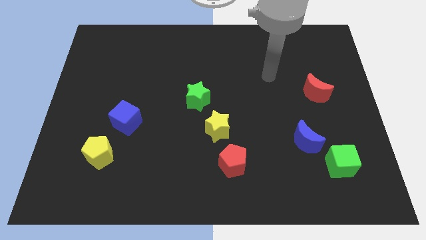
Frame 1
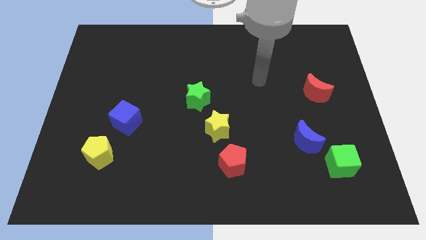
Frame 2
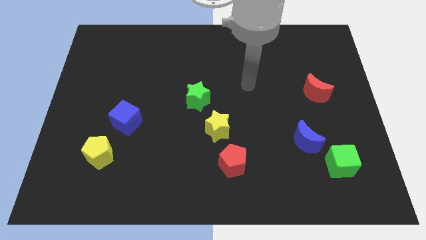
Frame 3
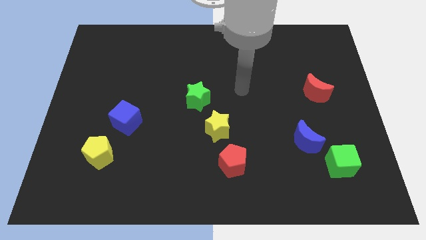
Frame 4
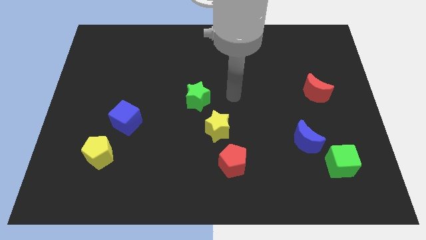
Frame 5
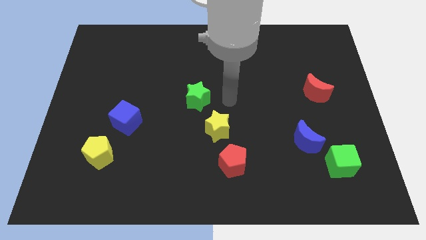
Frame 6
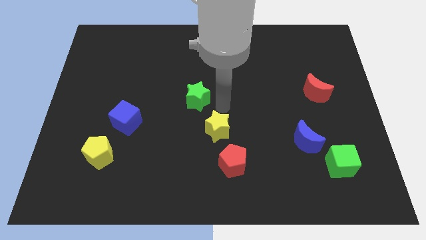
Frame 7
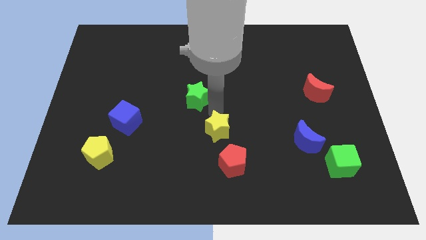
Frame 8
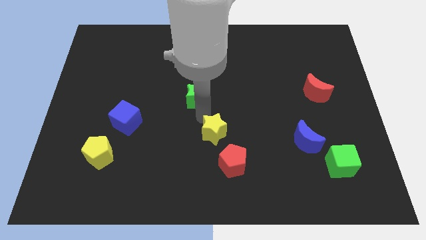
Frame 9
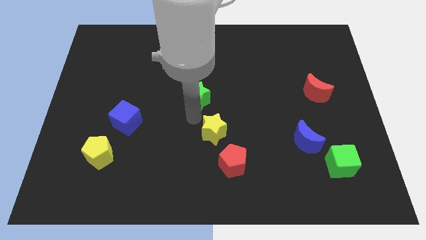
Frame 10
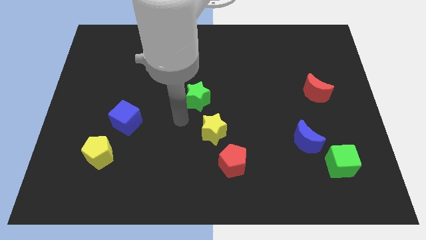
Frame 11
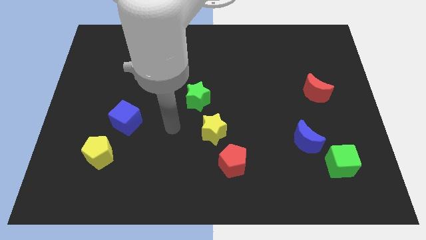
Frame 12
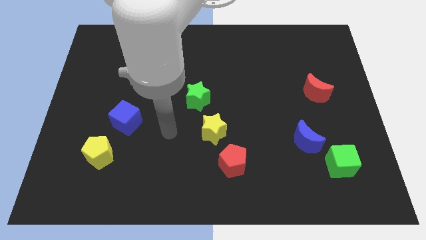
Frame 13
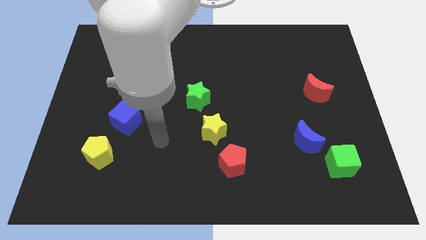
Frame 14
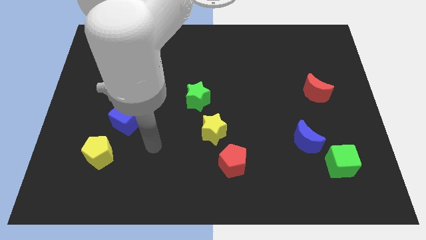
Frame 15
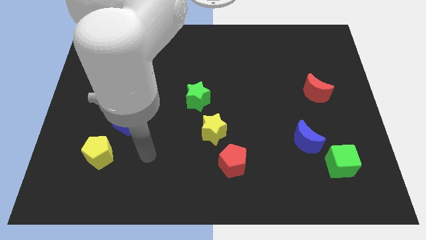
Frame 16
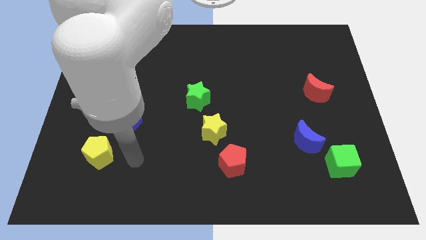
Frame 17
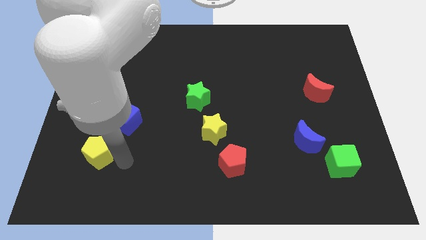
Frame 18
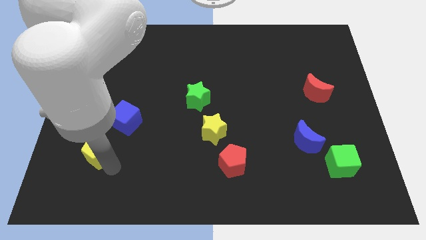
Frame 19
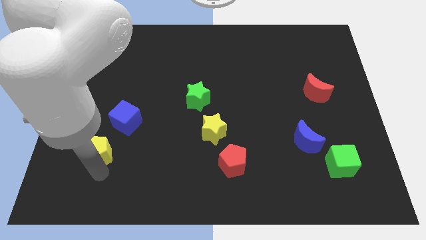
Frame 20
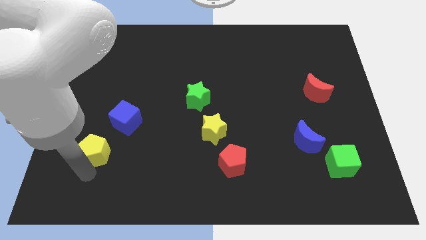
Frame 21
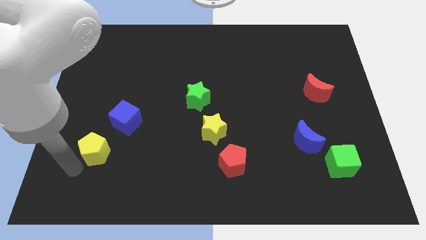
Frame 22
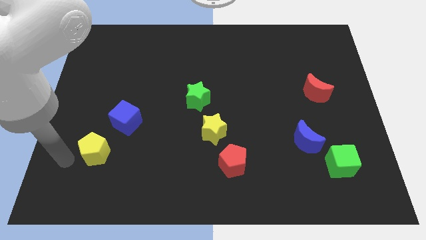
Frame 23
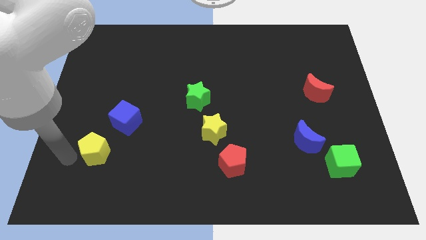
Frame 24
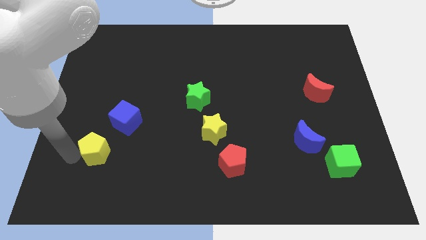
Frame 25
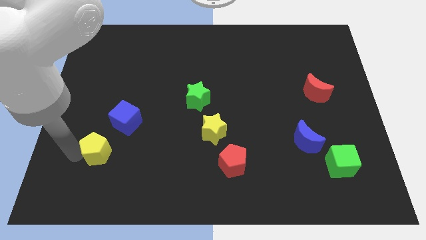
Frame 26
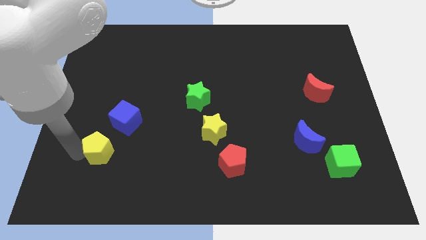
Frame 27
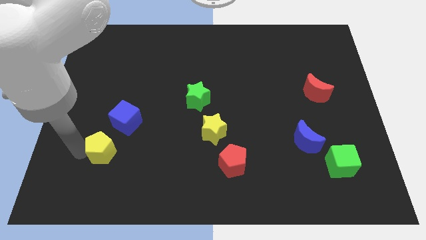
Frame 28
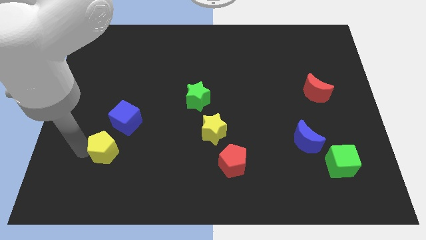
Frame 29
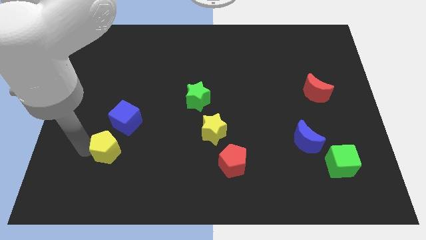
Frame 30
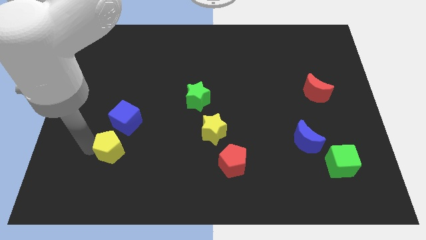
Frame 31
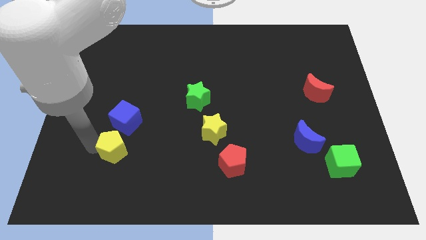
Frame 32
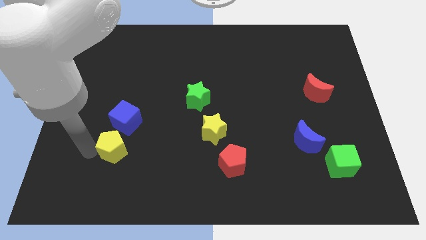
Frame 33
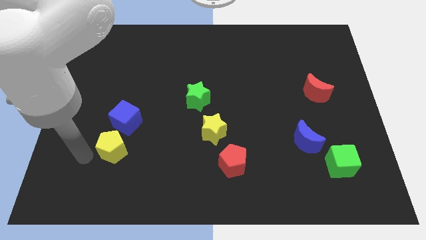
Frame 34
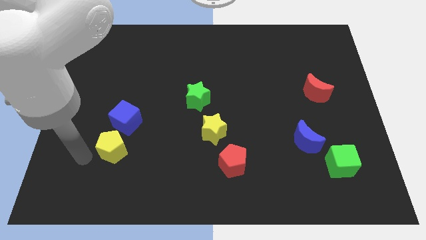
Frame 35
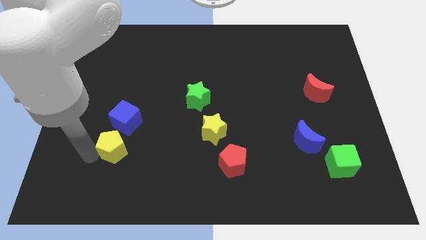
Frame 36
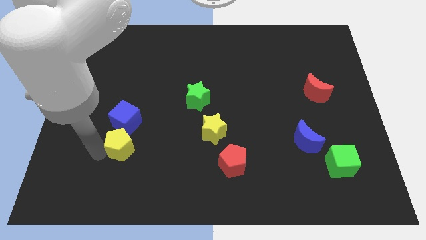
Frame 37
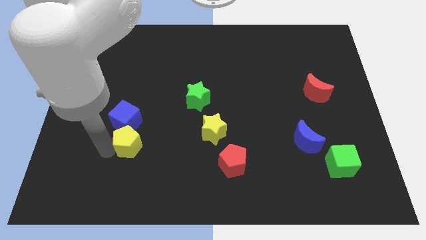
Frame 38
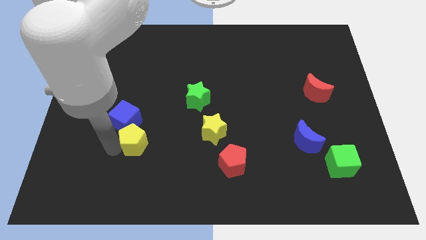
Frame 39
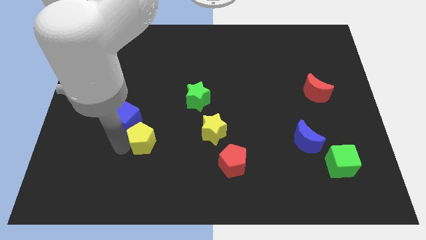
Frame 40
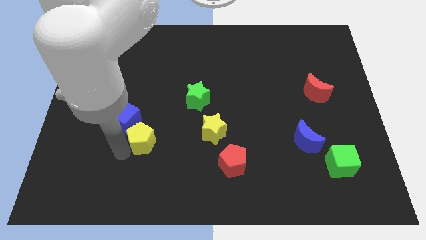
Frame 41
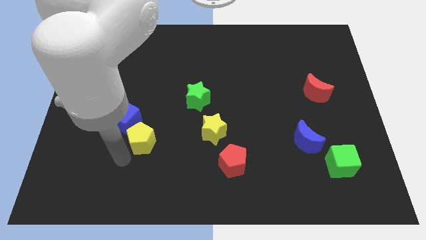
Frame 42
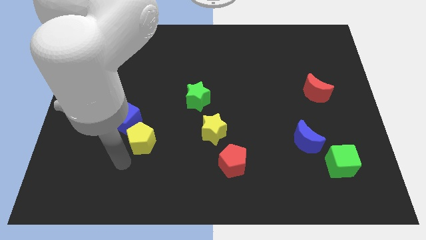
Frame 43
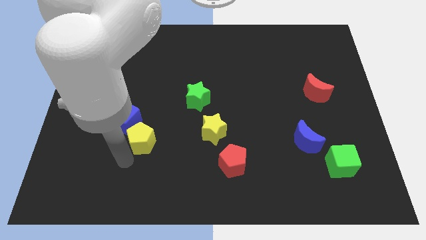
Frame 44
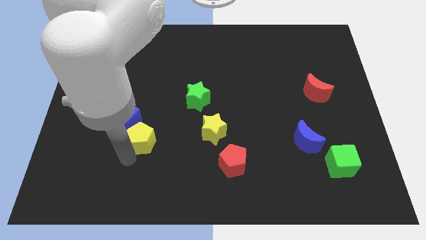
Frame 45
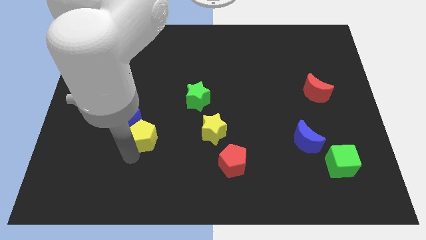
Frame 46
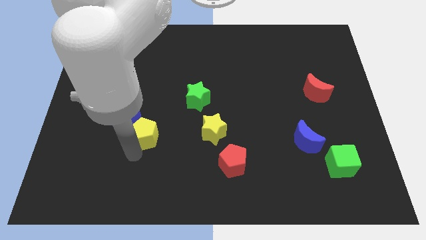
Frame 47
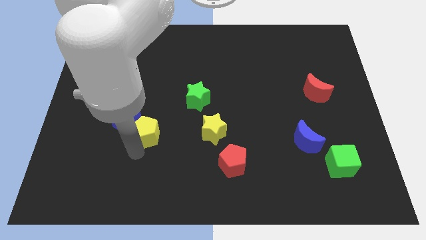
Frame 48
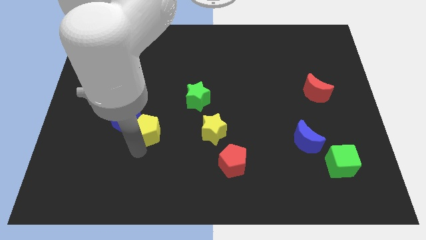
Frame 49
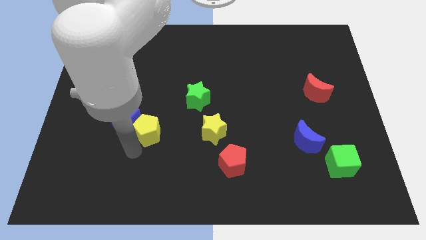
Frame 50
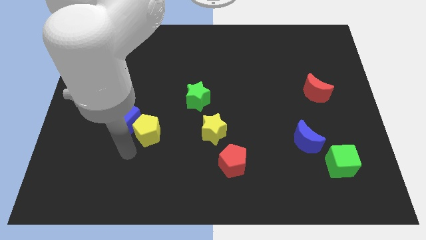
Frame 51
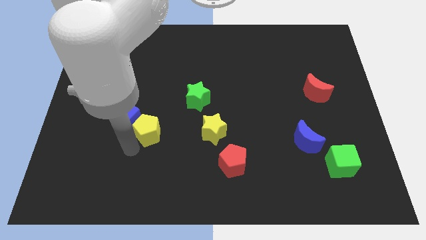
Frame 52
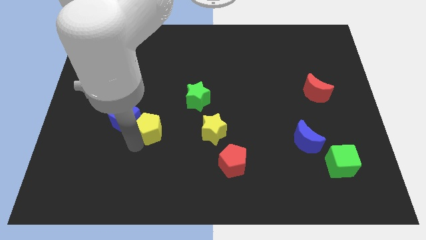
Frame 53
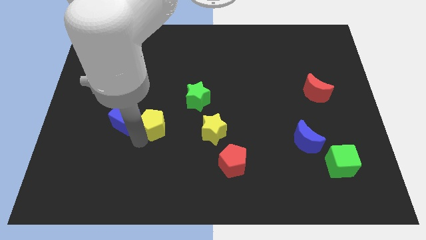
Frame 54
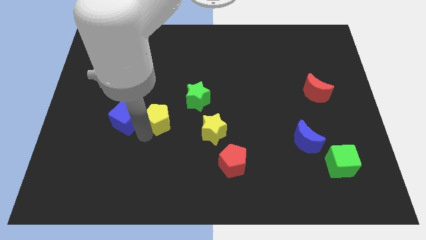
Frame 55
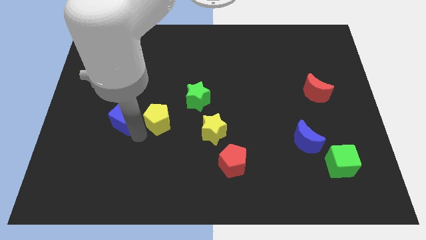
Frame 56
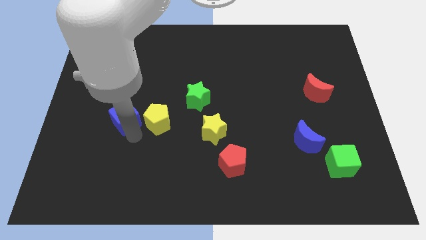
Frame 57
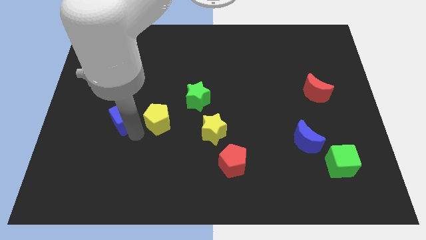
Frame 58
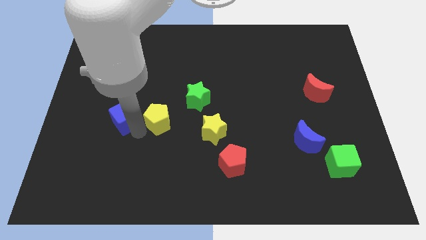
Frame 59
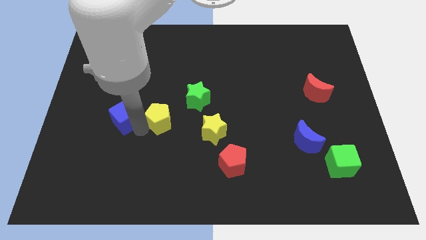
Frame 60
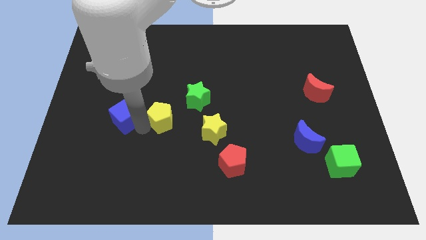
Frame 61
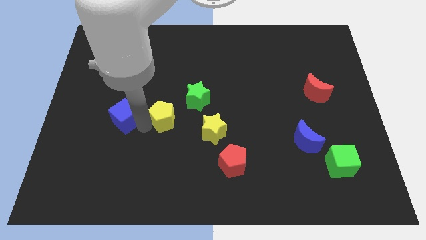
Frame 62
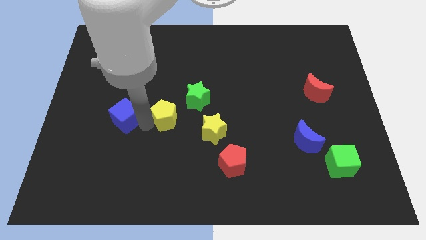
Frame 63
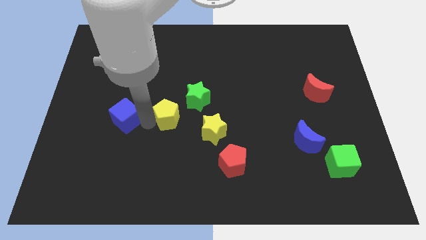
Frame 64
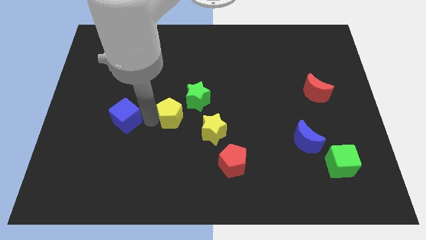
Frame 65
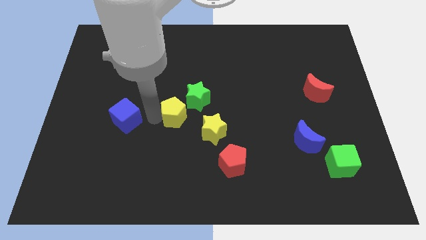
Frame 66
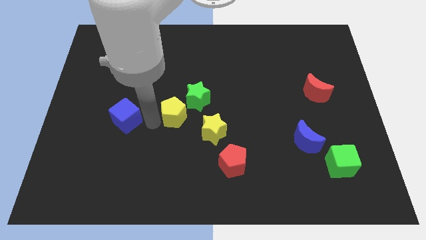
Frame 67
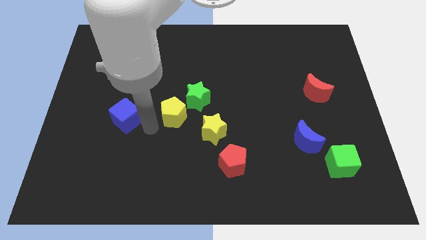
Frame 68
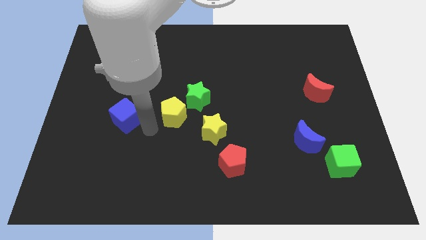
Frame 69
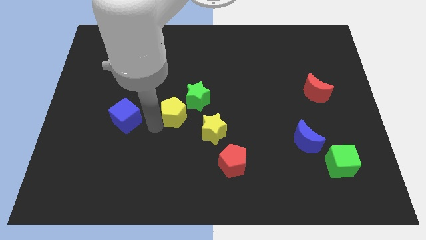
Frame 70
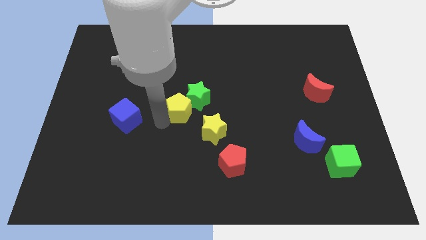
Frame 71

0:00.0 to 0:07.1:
put the yellow pentagon towards the green star

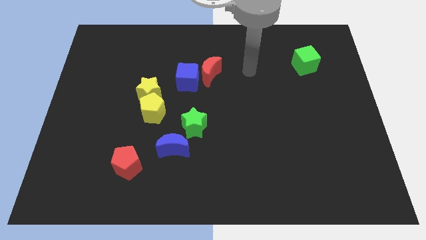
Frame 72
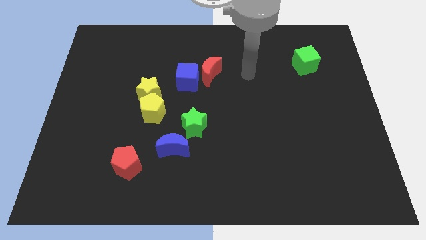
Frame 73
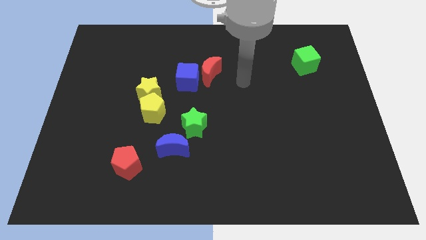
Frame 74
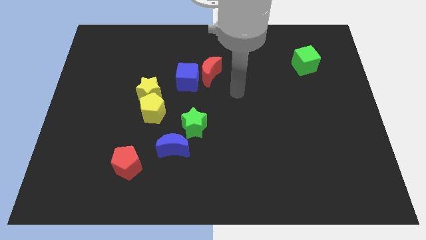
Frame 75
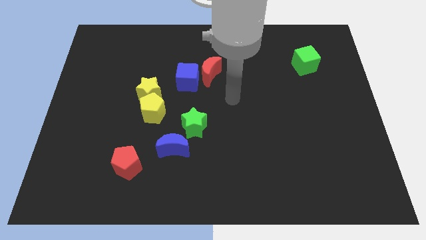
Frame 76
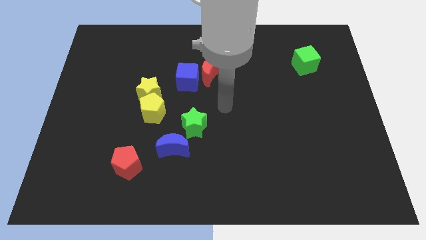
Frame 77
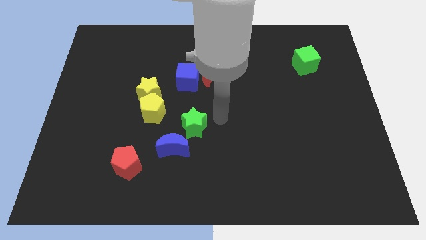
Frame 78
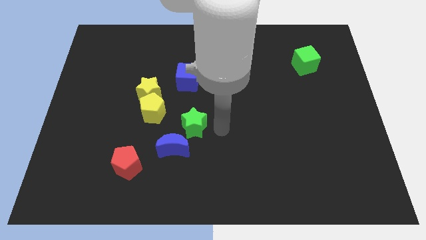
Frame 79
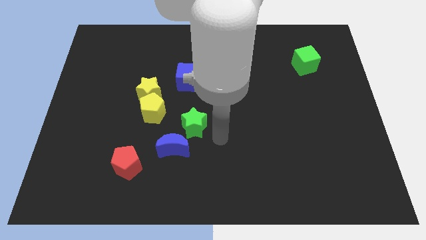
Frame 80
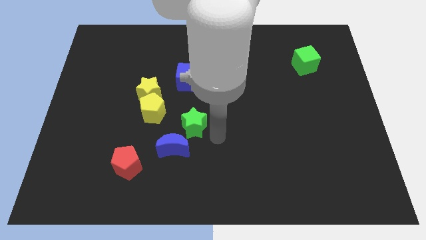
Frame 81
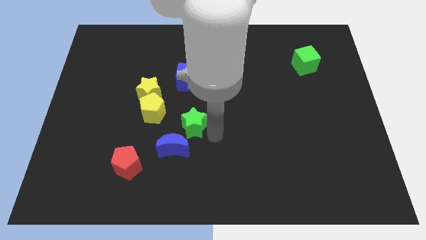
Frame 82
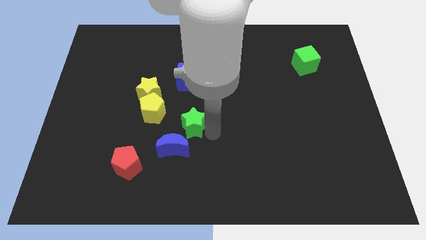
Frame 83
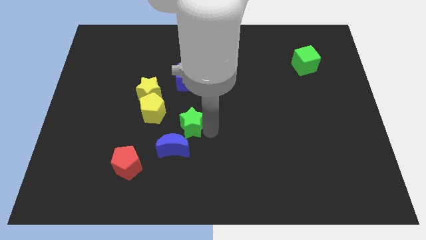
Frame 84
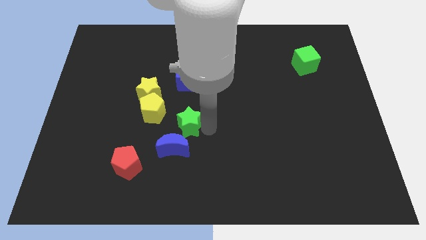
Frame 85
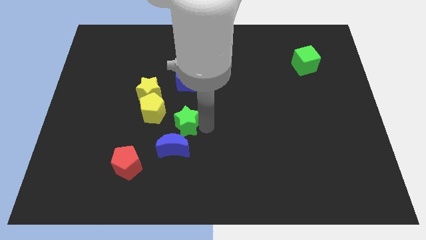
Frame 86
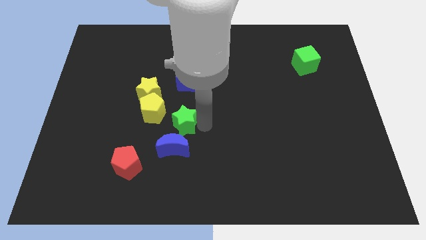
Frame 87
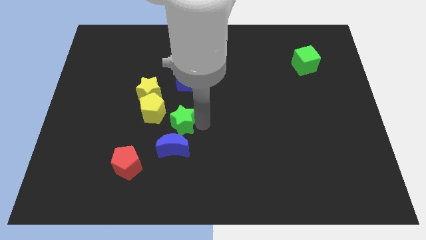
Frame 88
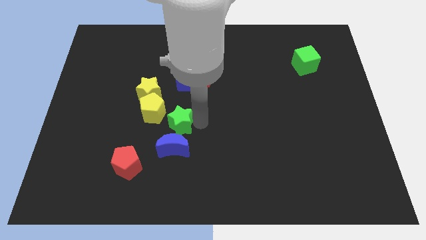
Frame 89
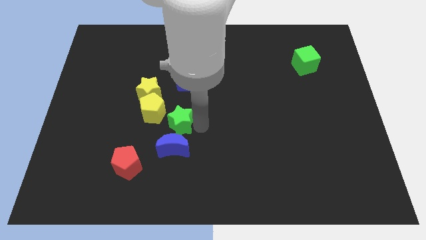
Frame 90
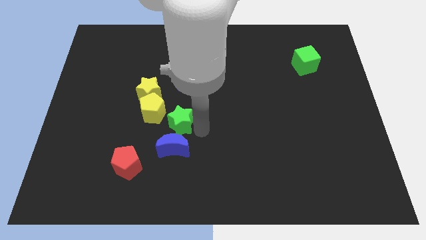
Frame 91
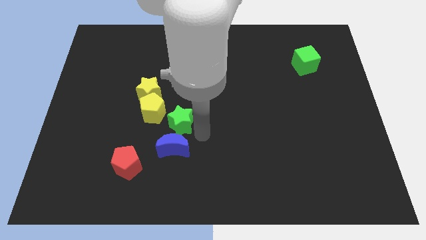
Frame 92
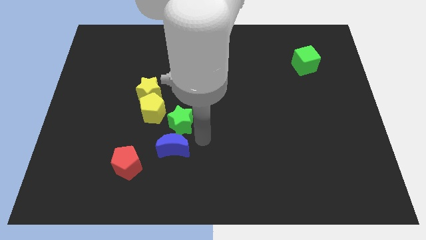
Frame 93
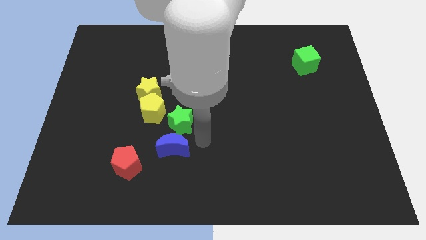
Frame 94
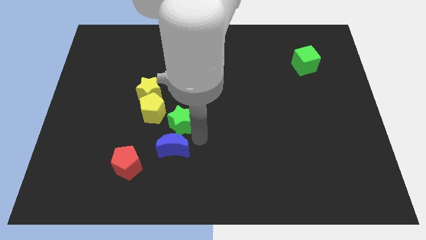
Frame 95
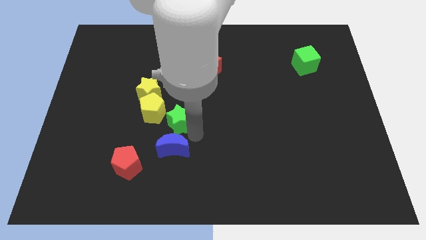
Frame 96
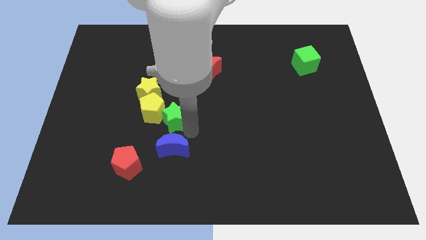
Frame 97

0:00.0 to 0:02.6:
put the green star to the yellow pentagon
